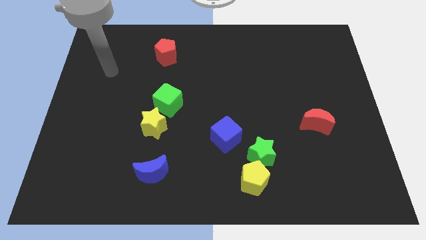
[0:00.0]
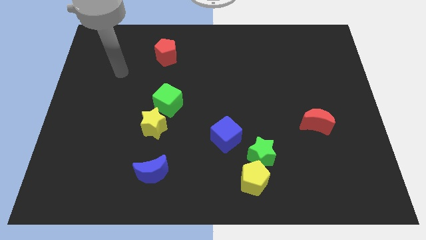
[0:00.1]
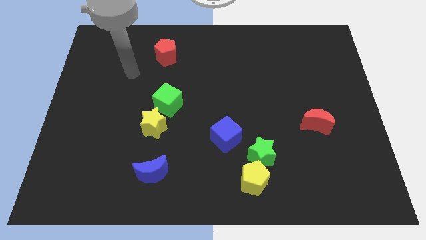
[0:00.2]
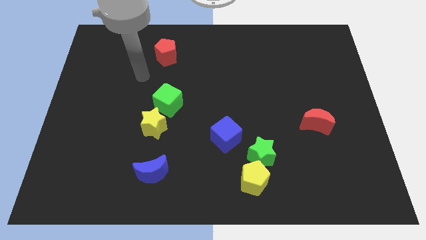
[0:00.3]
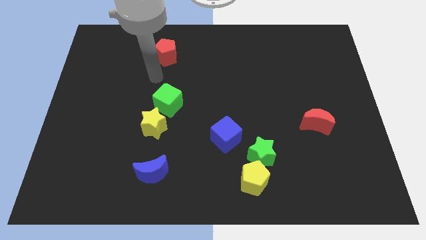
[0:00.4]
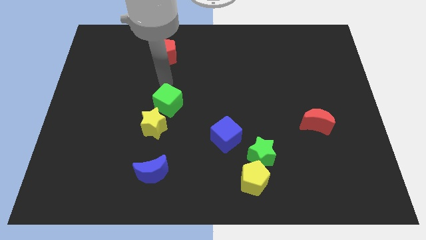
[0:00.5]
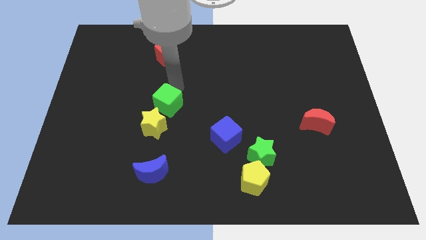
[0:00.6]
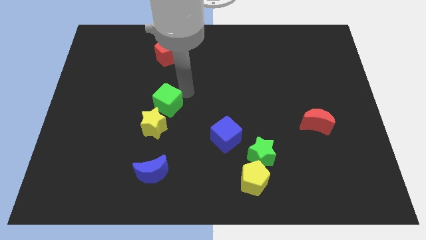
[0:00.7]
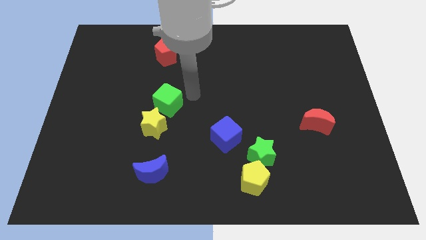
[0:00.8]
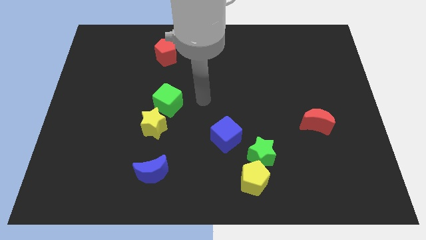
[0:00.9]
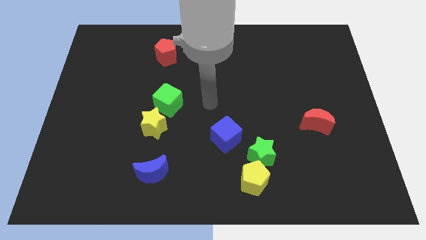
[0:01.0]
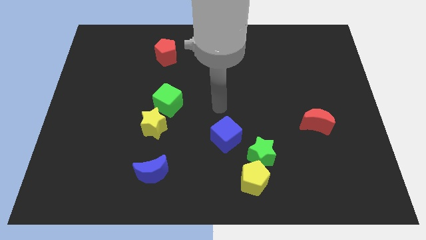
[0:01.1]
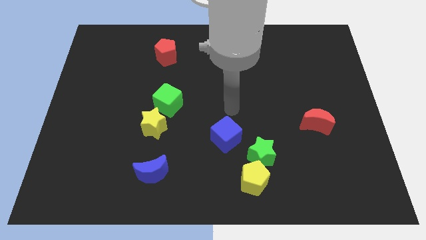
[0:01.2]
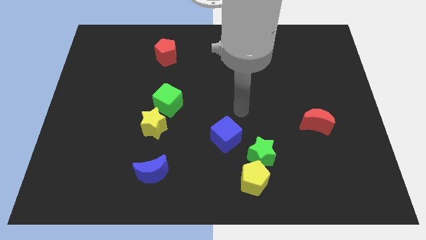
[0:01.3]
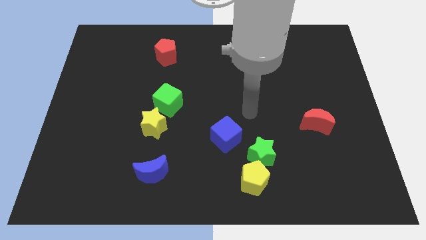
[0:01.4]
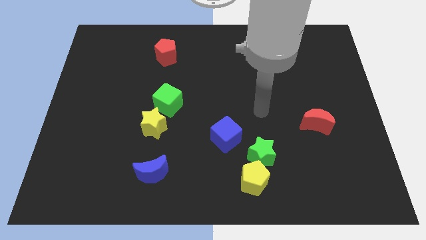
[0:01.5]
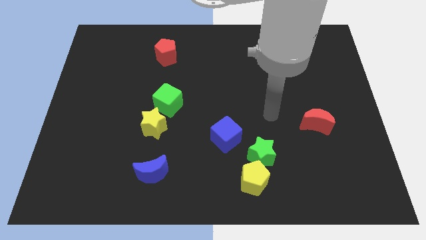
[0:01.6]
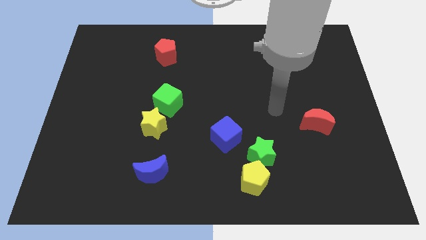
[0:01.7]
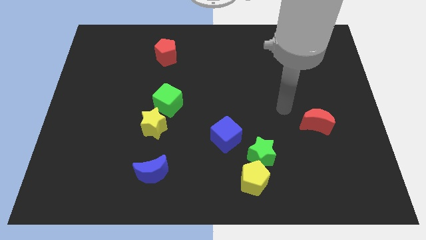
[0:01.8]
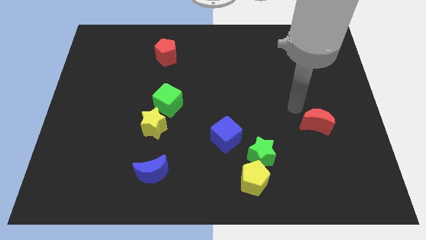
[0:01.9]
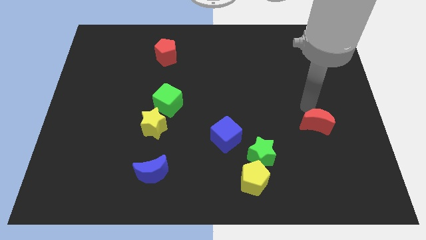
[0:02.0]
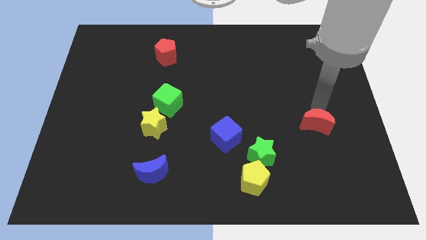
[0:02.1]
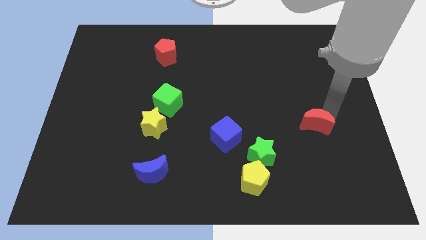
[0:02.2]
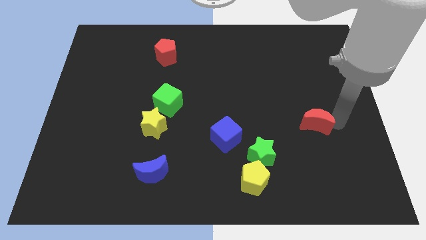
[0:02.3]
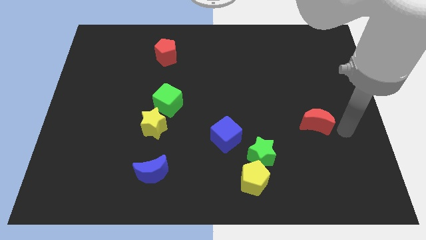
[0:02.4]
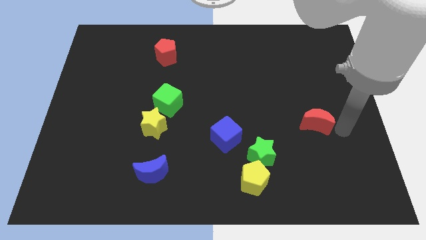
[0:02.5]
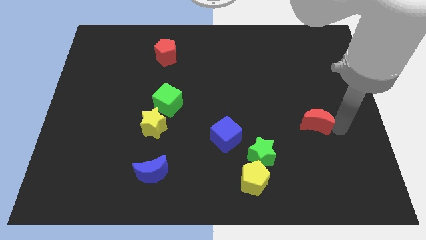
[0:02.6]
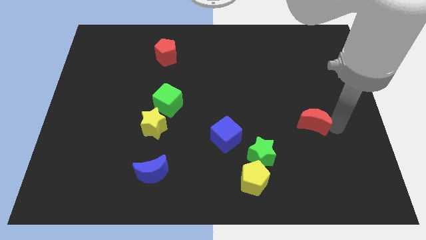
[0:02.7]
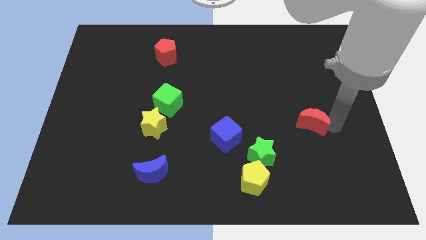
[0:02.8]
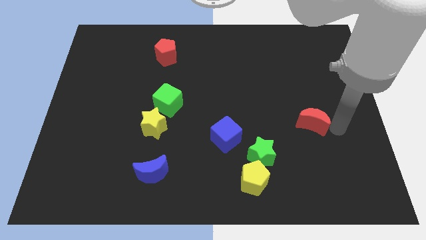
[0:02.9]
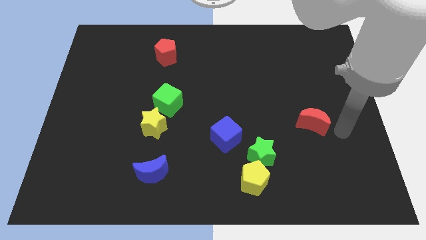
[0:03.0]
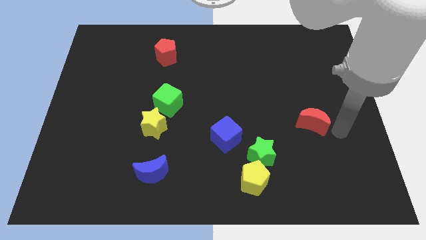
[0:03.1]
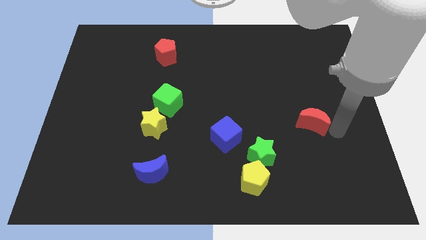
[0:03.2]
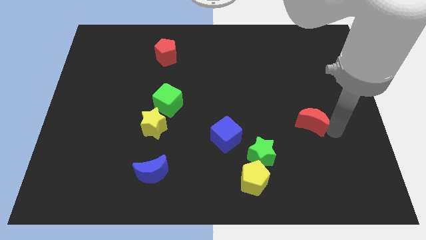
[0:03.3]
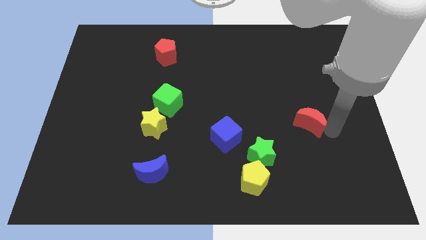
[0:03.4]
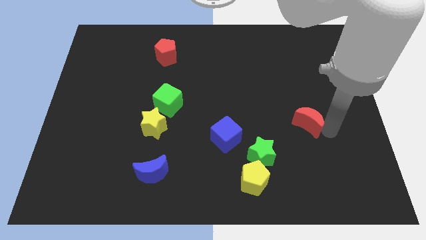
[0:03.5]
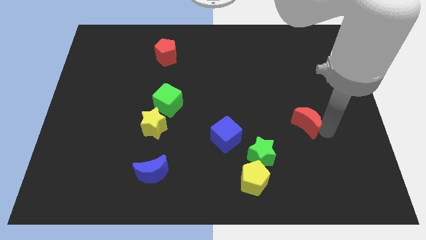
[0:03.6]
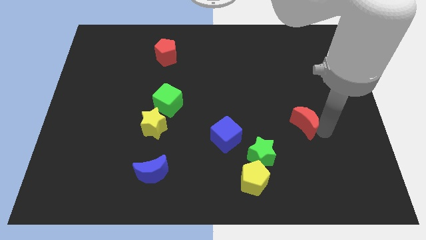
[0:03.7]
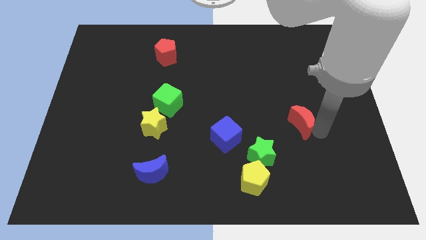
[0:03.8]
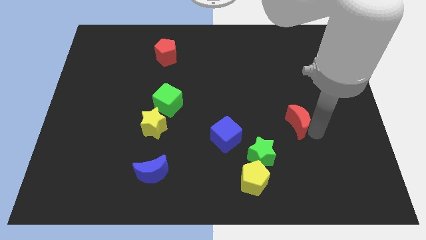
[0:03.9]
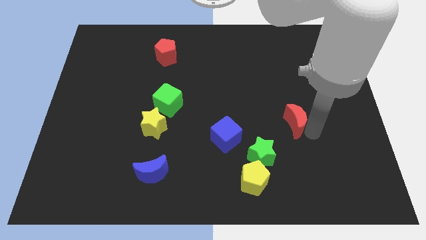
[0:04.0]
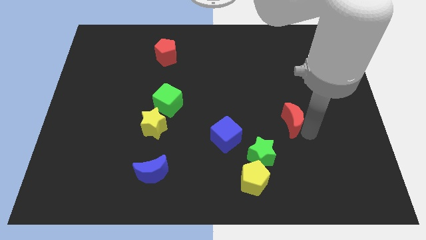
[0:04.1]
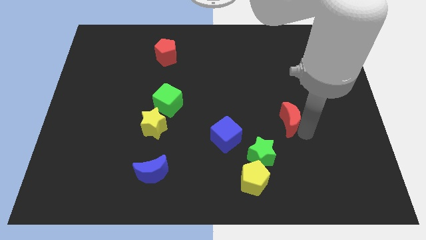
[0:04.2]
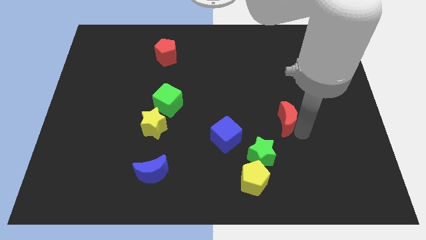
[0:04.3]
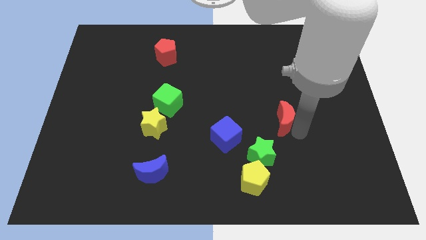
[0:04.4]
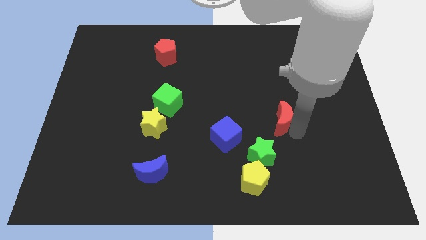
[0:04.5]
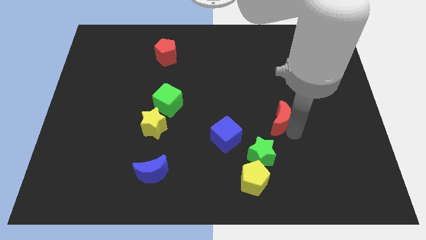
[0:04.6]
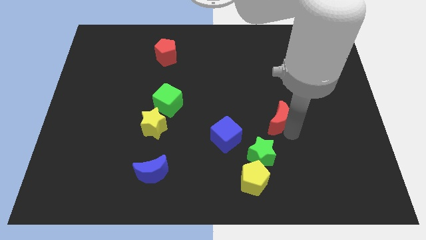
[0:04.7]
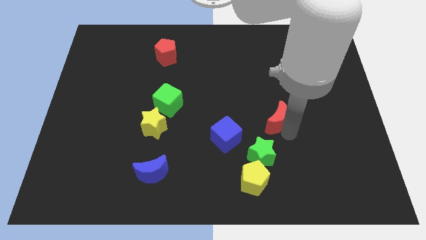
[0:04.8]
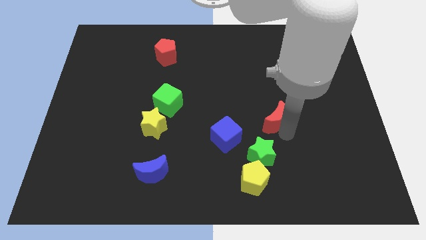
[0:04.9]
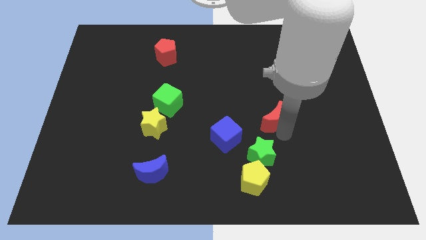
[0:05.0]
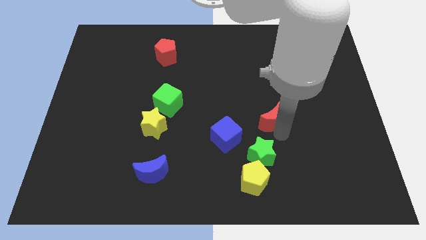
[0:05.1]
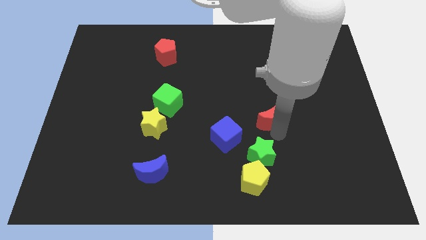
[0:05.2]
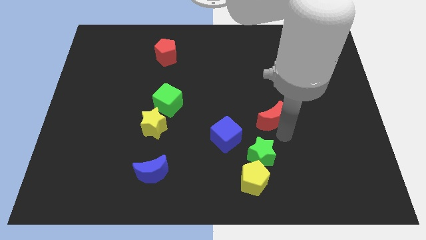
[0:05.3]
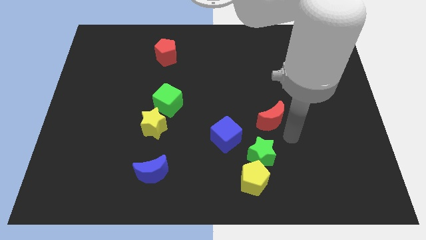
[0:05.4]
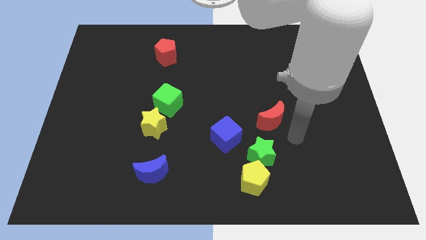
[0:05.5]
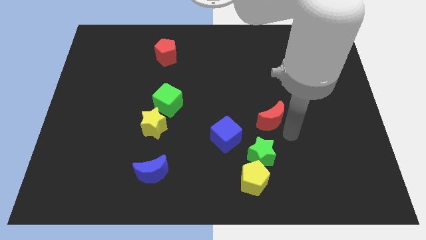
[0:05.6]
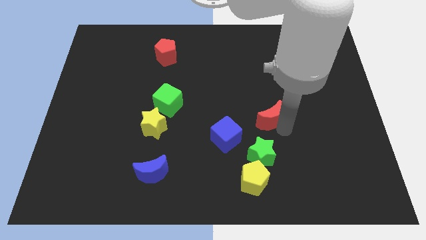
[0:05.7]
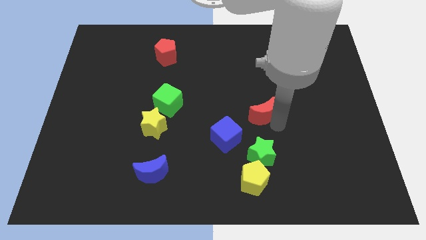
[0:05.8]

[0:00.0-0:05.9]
move the red moon to the center of the board

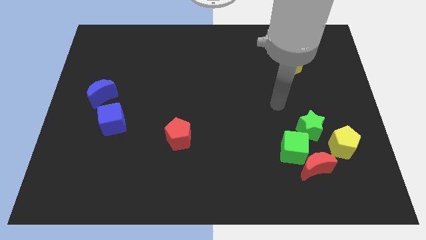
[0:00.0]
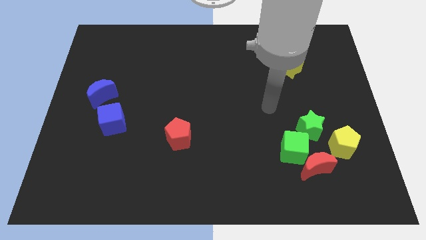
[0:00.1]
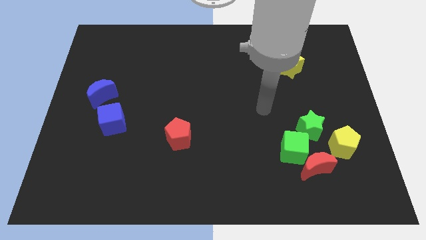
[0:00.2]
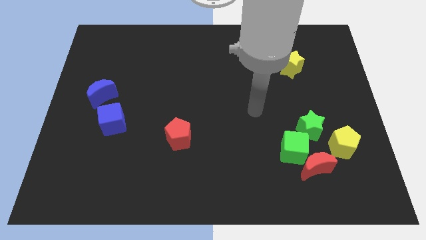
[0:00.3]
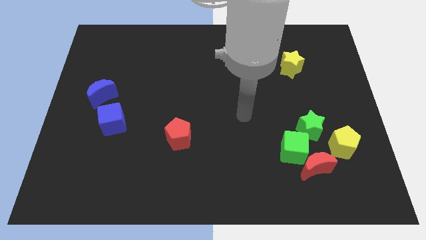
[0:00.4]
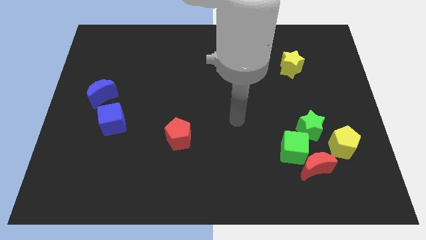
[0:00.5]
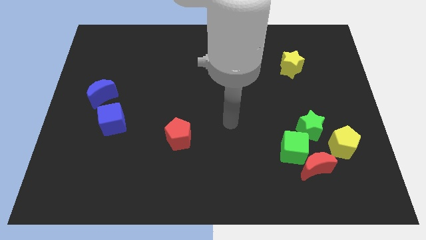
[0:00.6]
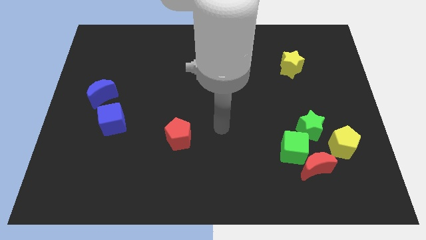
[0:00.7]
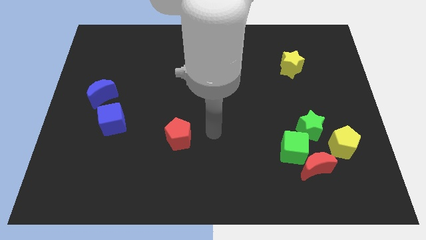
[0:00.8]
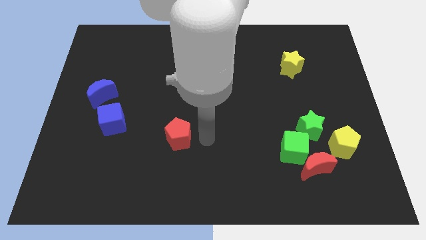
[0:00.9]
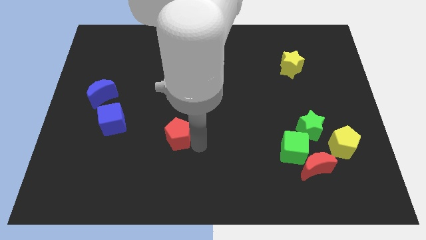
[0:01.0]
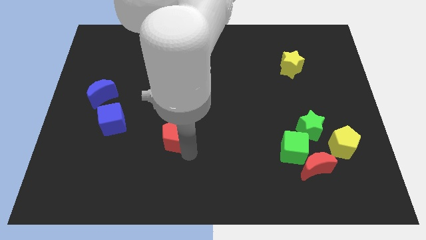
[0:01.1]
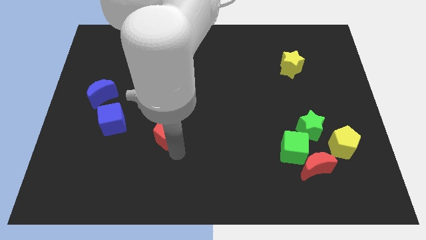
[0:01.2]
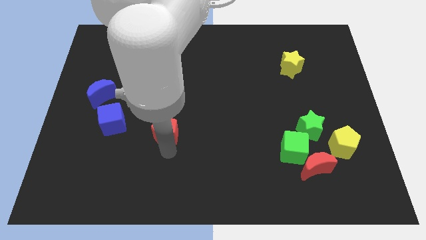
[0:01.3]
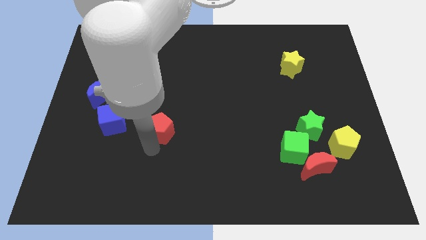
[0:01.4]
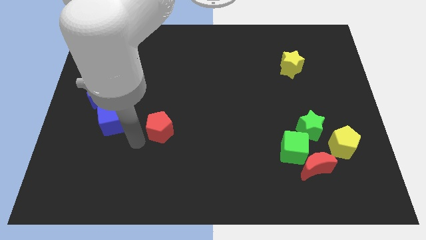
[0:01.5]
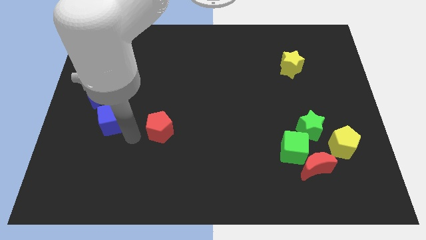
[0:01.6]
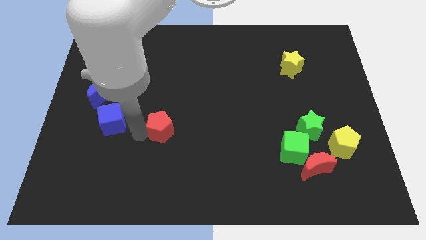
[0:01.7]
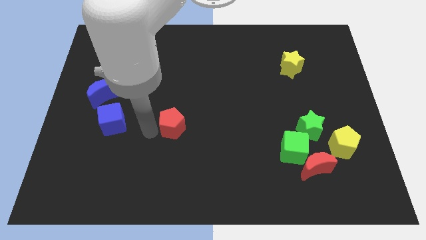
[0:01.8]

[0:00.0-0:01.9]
push the red pentagon to the center of the board
